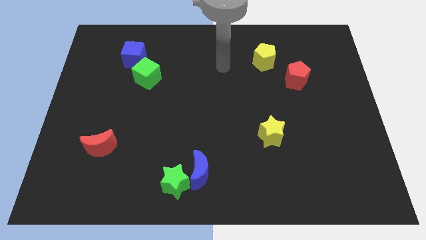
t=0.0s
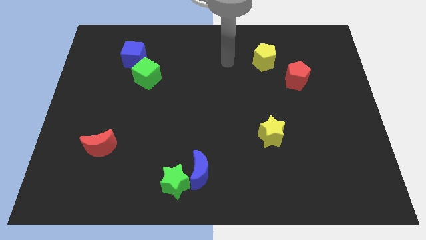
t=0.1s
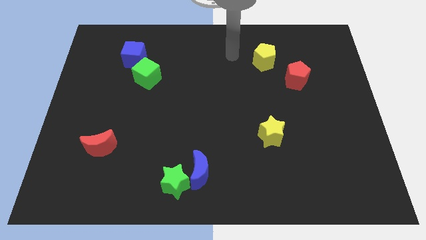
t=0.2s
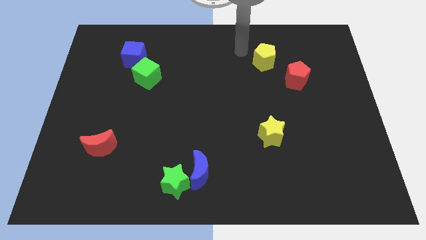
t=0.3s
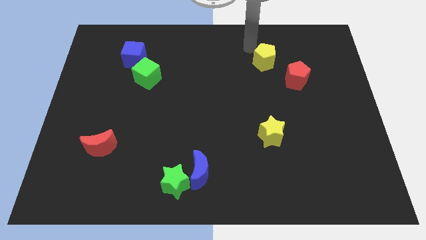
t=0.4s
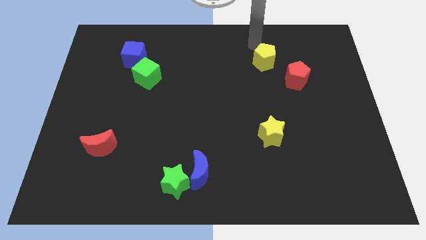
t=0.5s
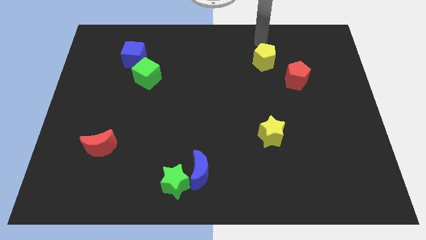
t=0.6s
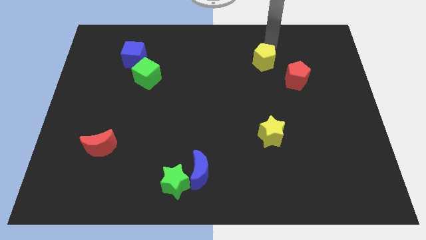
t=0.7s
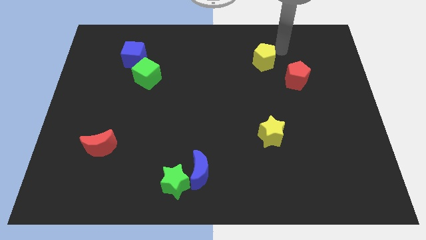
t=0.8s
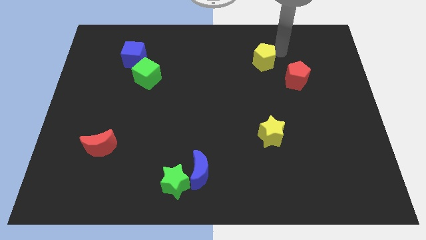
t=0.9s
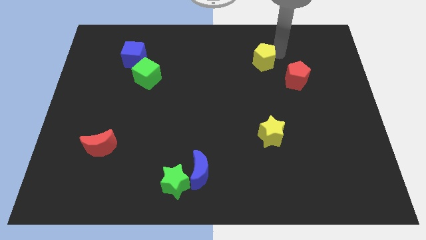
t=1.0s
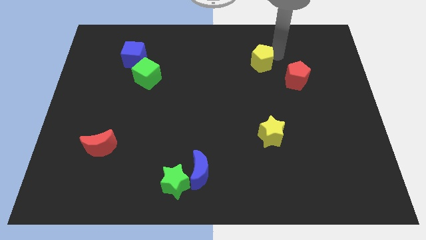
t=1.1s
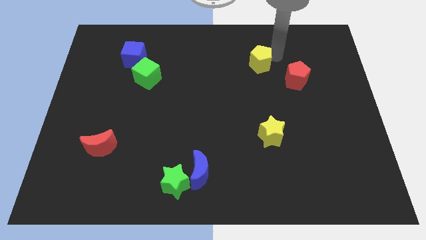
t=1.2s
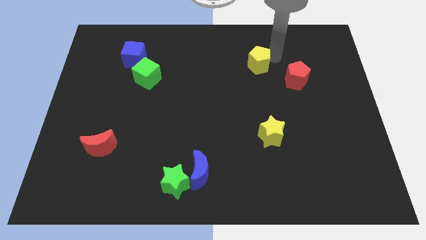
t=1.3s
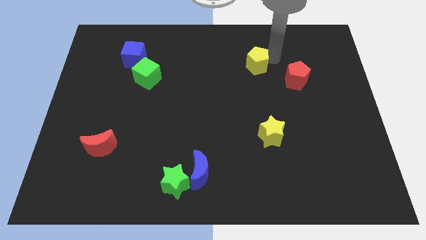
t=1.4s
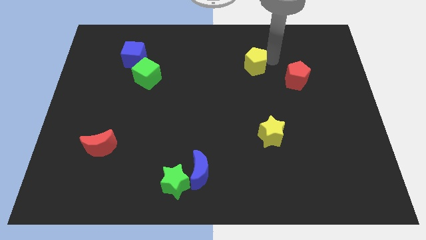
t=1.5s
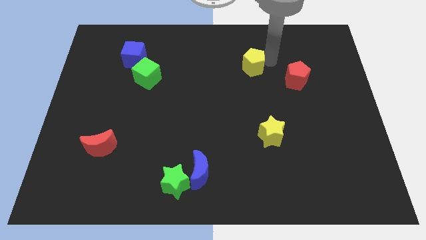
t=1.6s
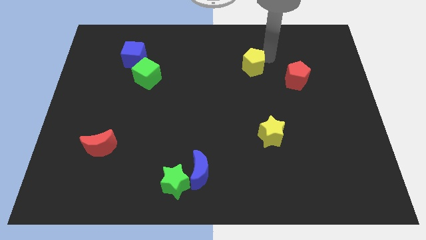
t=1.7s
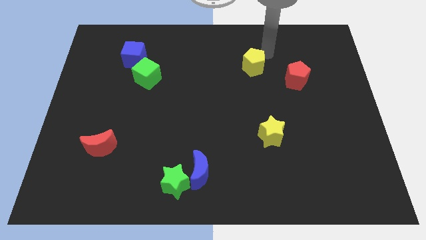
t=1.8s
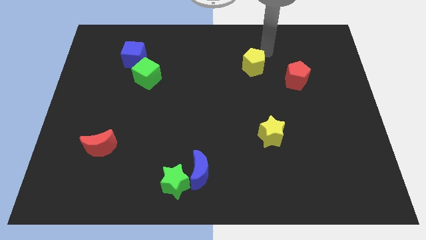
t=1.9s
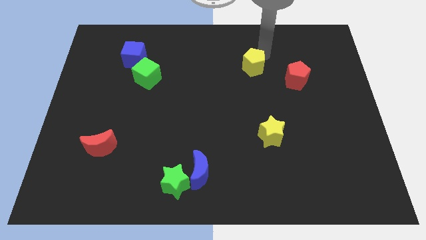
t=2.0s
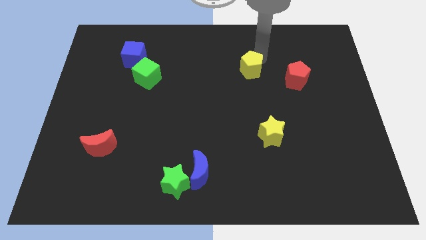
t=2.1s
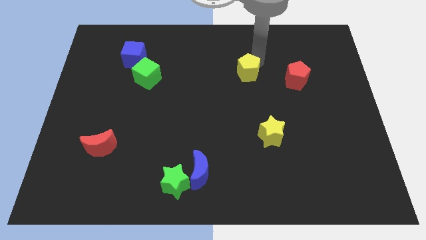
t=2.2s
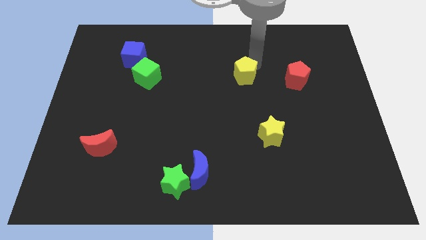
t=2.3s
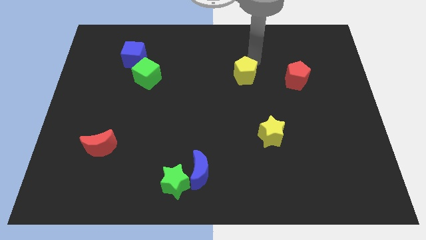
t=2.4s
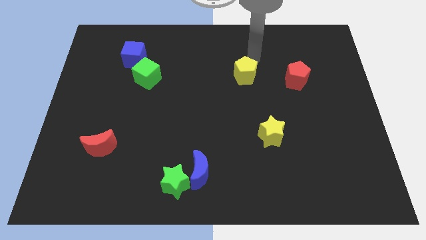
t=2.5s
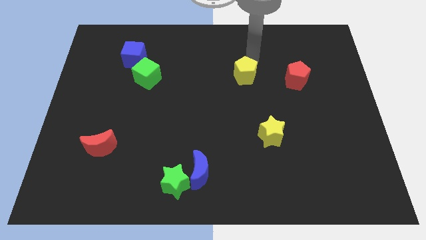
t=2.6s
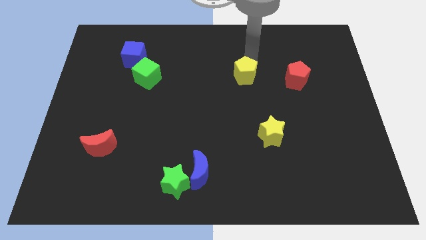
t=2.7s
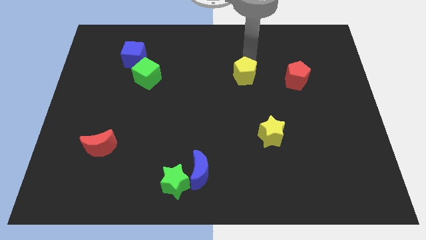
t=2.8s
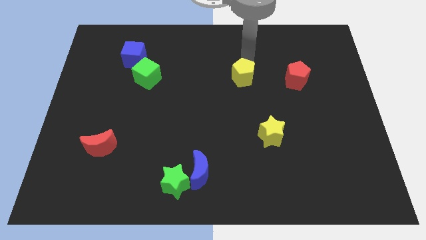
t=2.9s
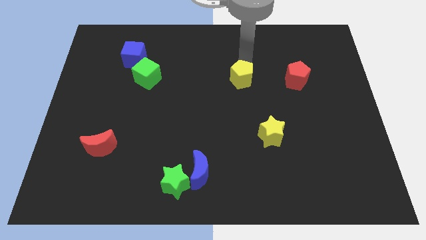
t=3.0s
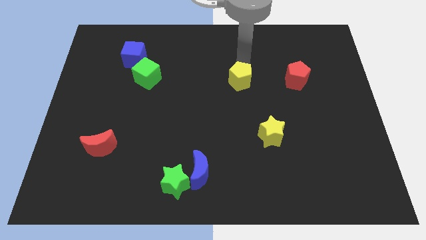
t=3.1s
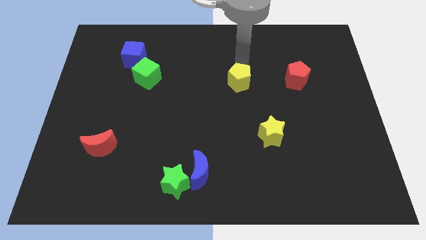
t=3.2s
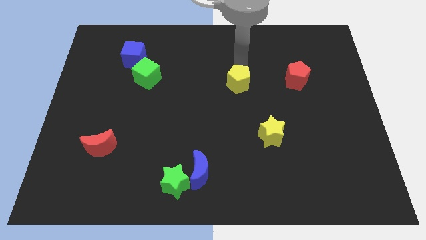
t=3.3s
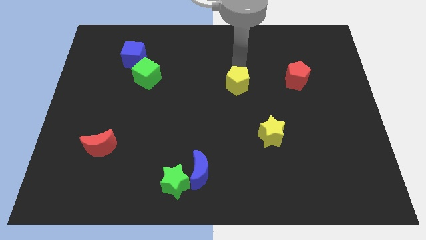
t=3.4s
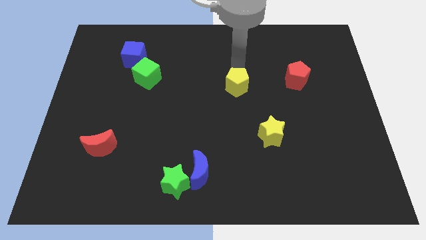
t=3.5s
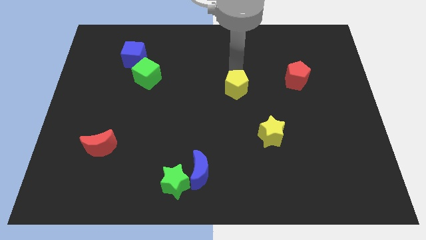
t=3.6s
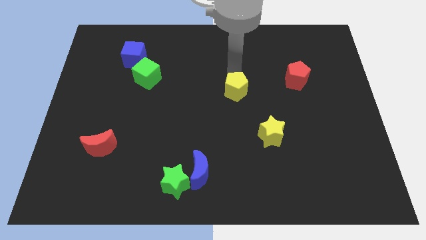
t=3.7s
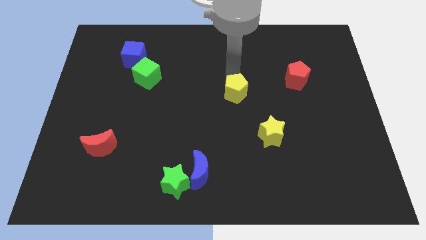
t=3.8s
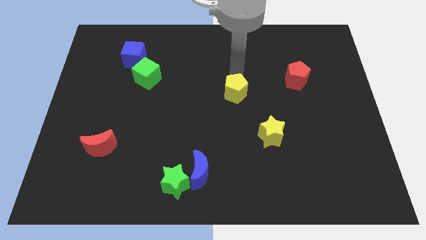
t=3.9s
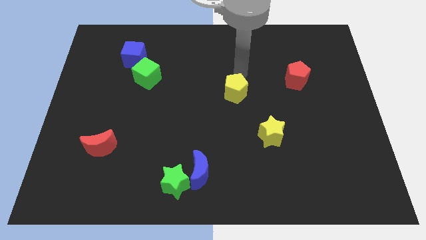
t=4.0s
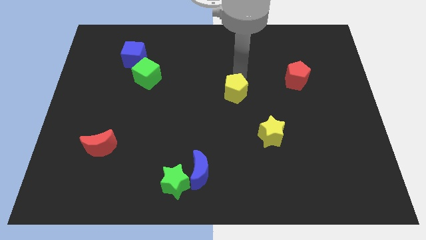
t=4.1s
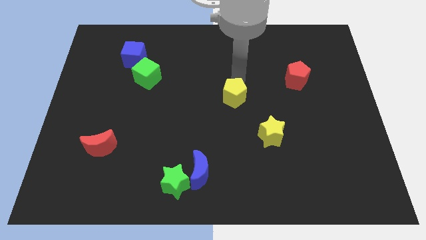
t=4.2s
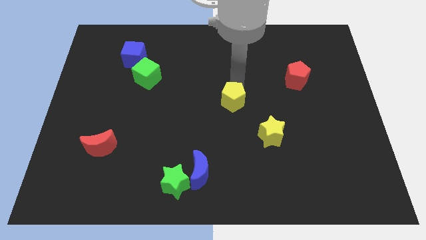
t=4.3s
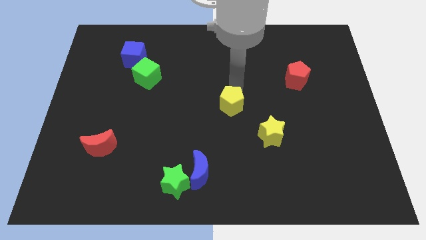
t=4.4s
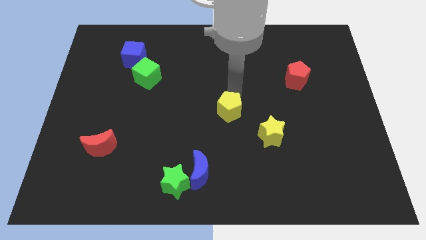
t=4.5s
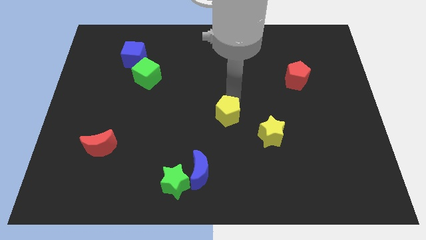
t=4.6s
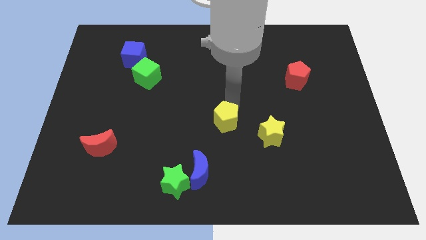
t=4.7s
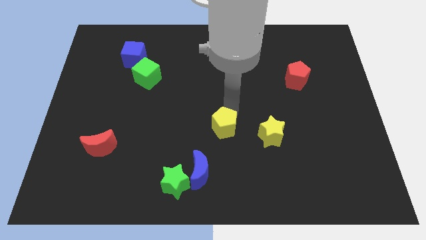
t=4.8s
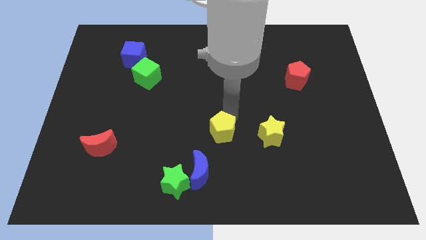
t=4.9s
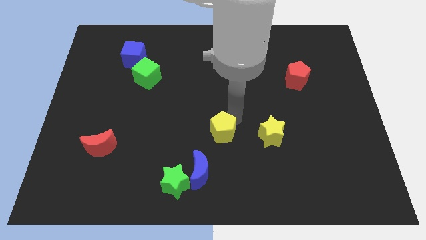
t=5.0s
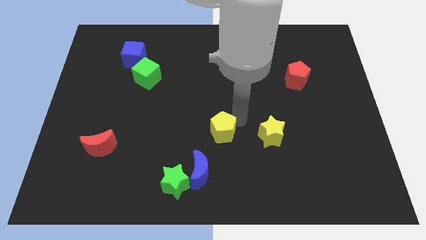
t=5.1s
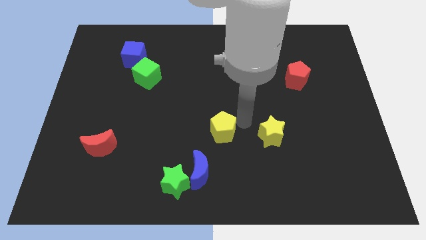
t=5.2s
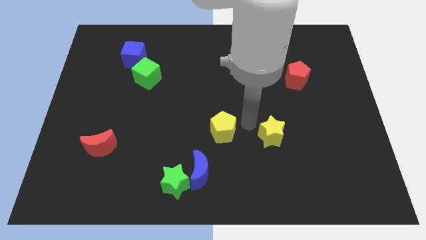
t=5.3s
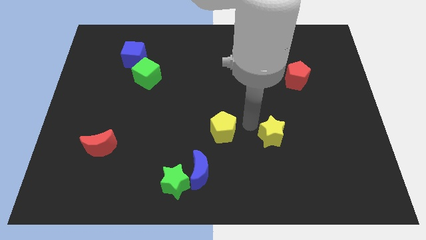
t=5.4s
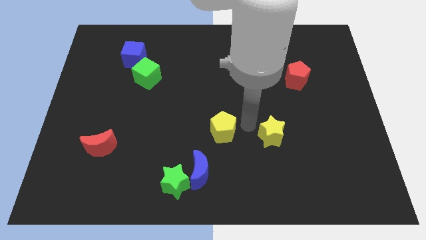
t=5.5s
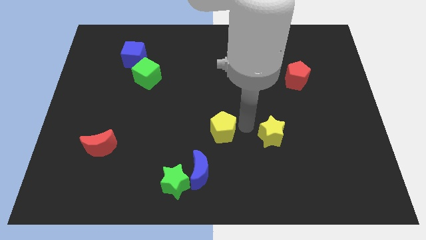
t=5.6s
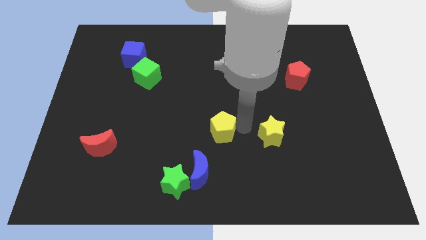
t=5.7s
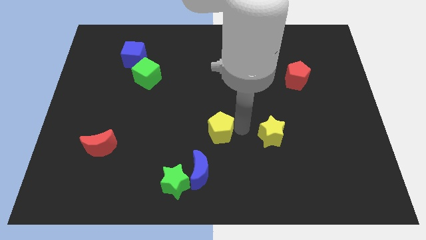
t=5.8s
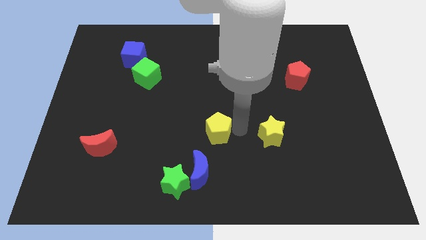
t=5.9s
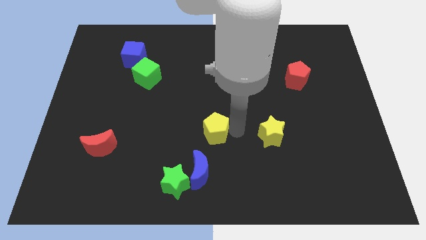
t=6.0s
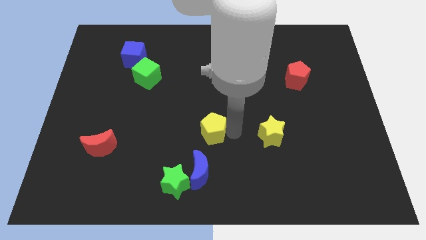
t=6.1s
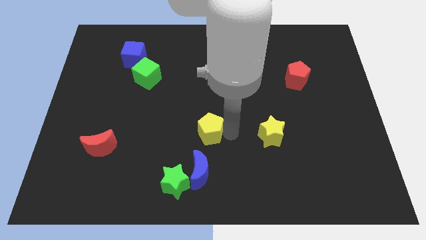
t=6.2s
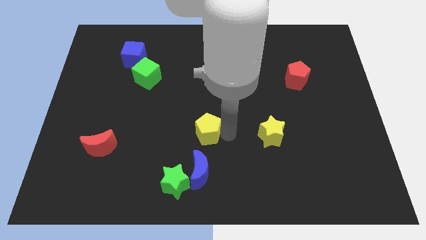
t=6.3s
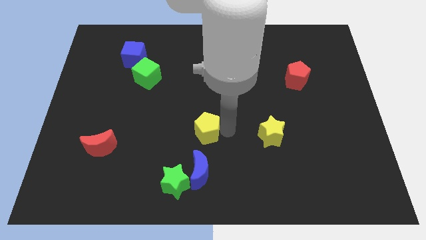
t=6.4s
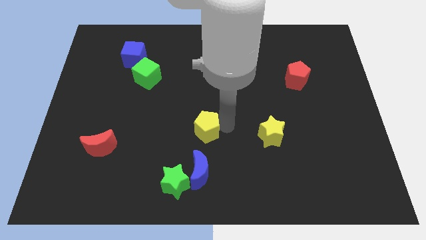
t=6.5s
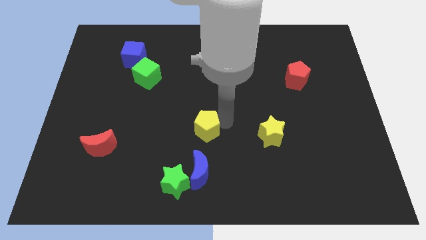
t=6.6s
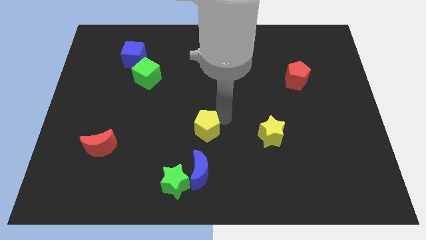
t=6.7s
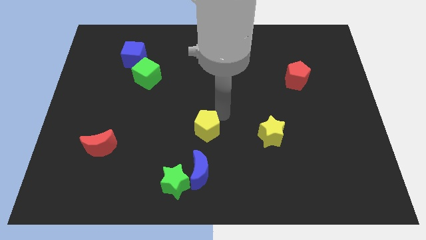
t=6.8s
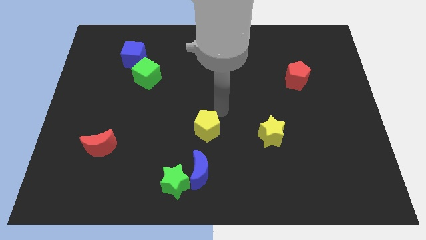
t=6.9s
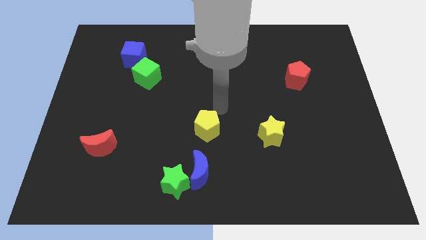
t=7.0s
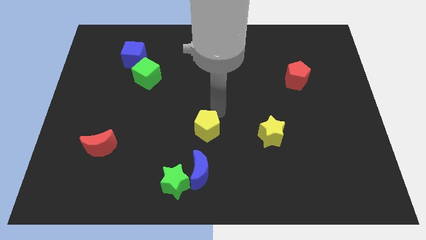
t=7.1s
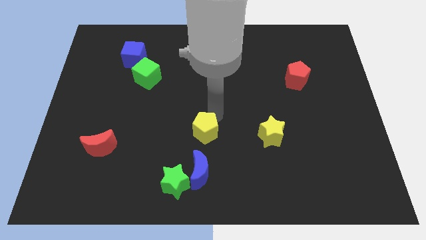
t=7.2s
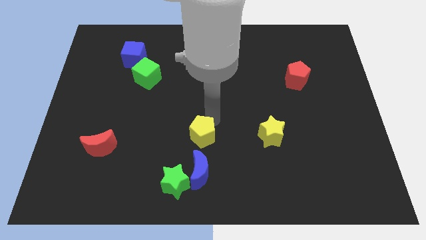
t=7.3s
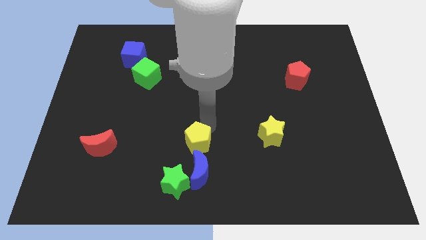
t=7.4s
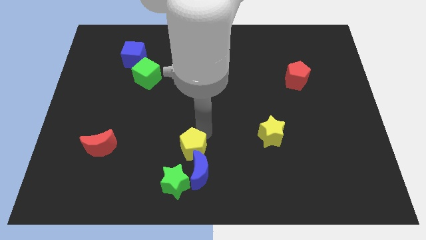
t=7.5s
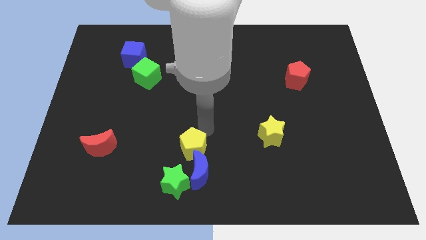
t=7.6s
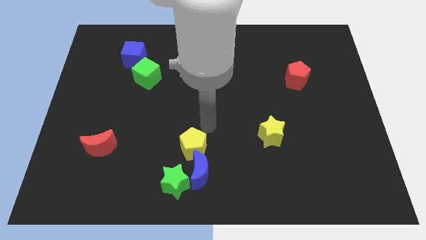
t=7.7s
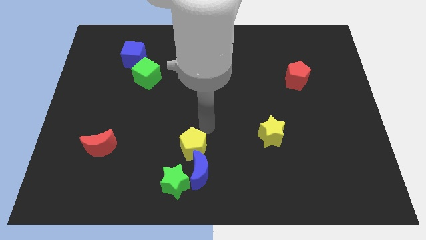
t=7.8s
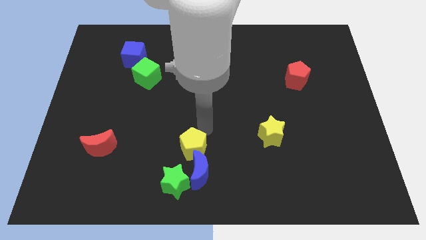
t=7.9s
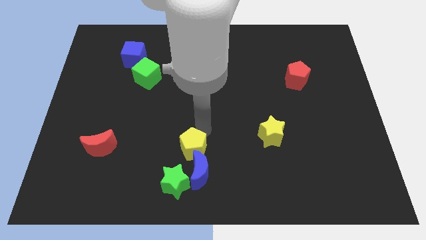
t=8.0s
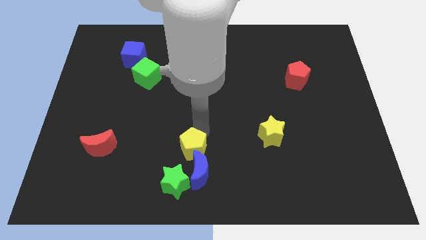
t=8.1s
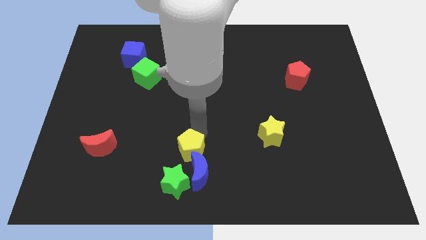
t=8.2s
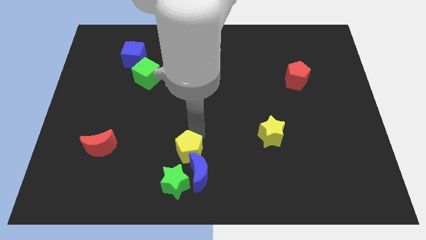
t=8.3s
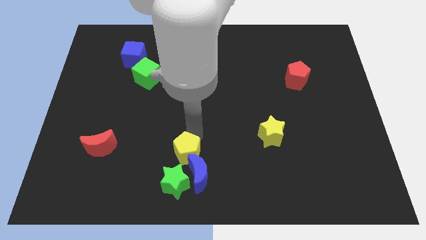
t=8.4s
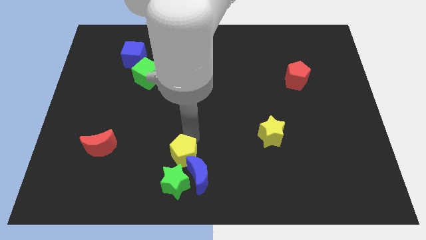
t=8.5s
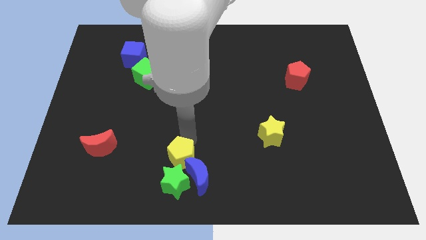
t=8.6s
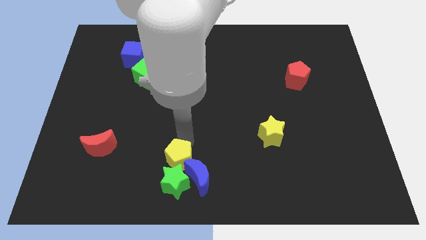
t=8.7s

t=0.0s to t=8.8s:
slide the yellow pentagon towards the green star
